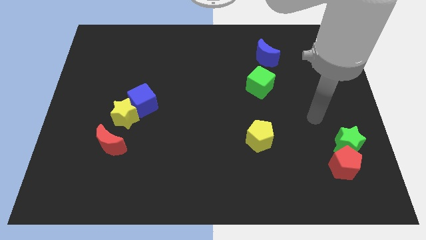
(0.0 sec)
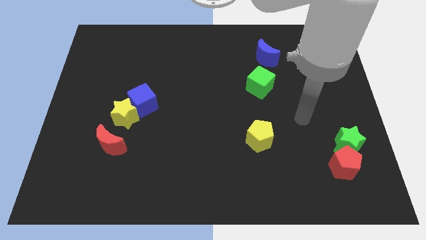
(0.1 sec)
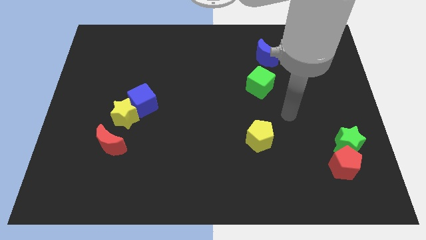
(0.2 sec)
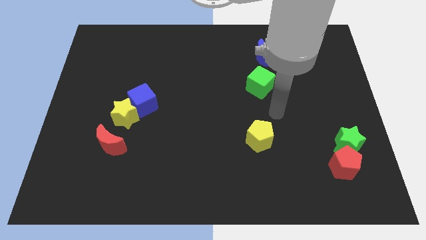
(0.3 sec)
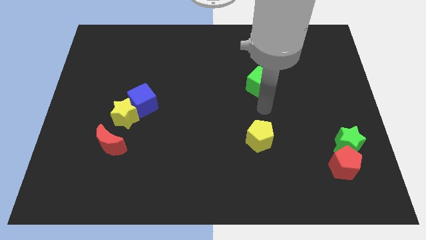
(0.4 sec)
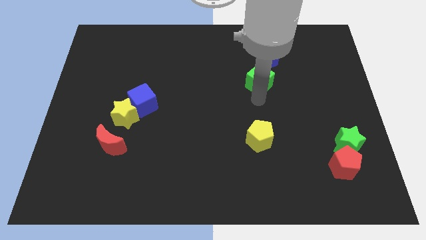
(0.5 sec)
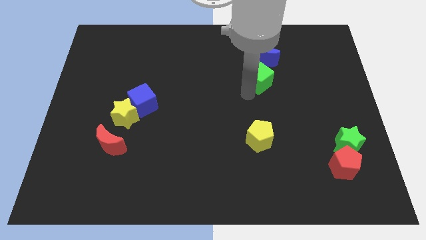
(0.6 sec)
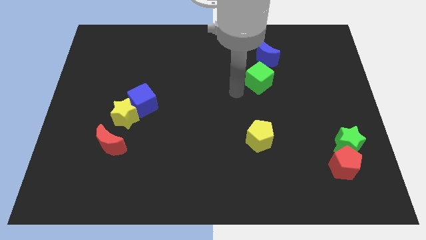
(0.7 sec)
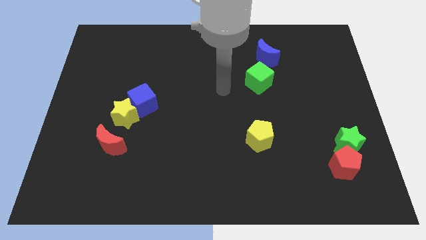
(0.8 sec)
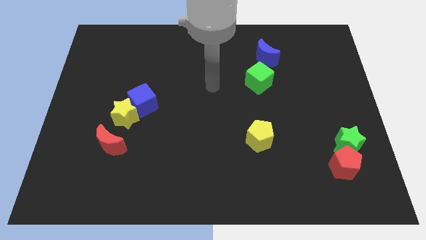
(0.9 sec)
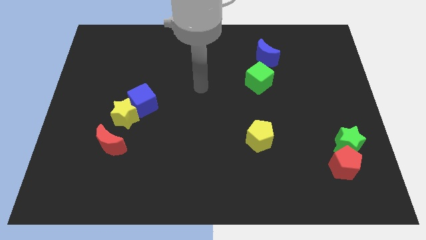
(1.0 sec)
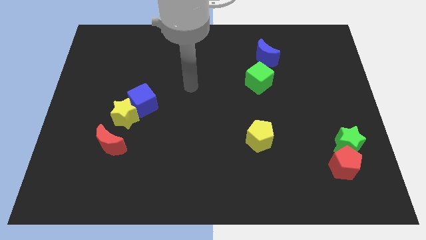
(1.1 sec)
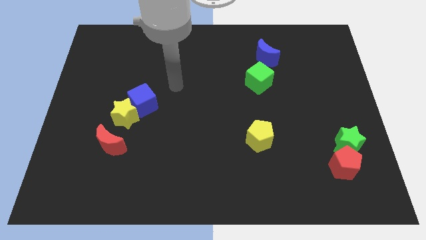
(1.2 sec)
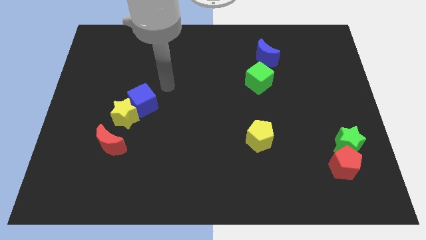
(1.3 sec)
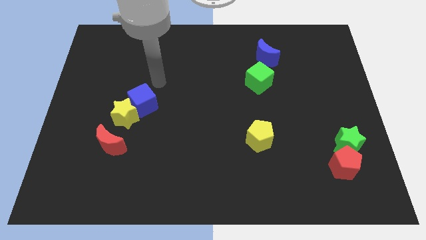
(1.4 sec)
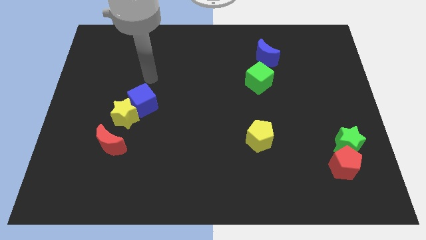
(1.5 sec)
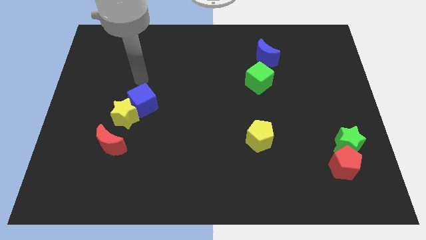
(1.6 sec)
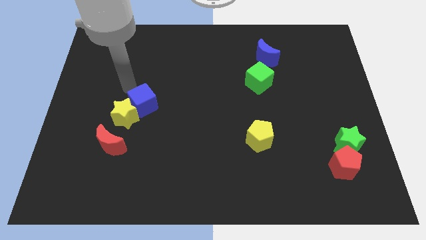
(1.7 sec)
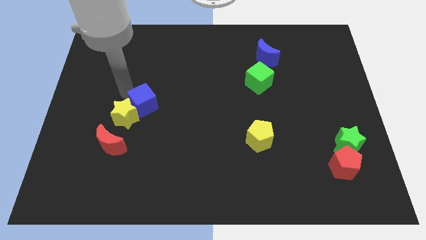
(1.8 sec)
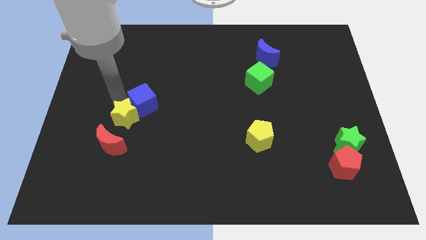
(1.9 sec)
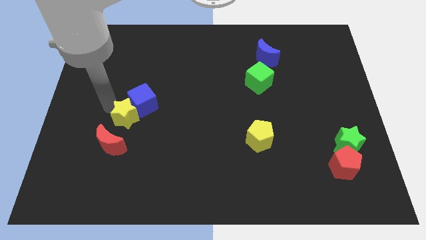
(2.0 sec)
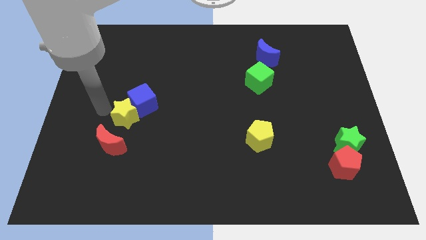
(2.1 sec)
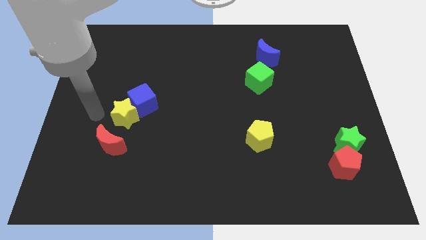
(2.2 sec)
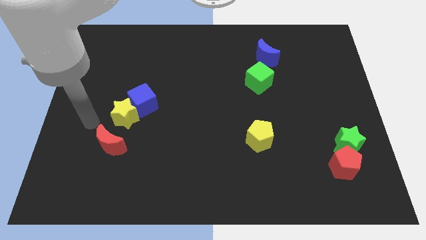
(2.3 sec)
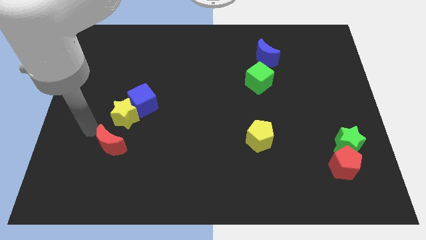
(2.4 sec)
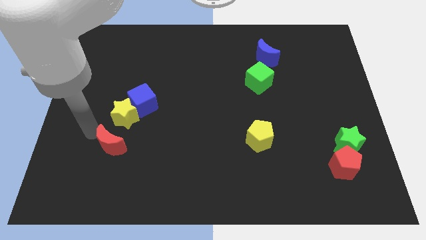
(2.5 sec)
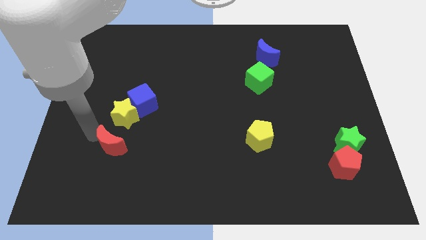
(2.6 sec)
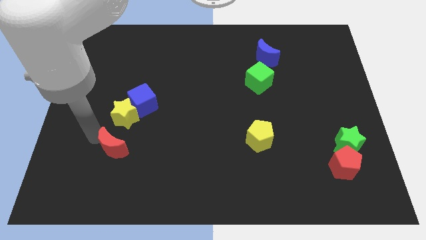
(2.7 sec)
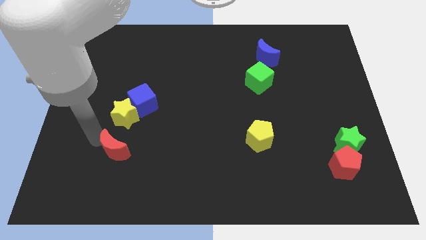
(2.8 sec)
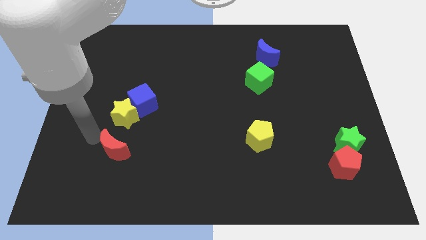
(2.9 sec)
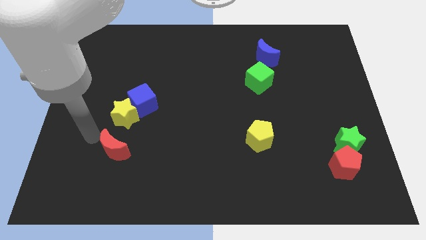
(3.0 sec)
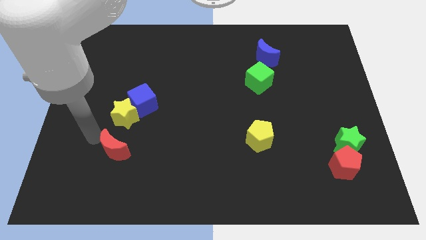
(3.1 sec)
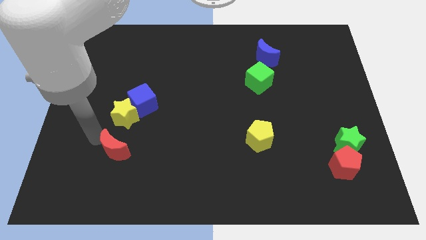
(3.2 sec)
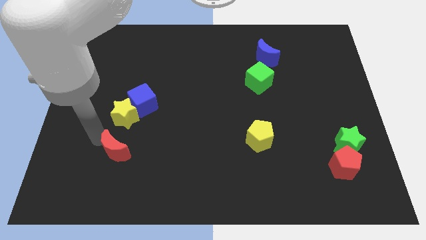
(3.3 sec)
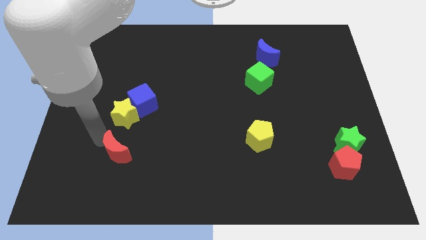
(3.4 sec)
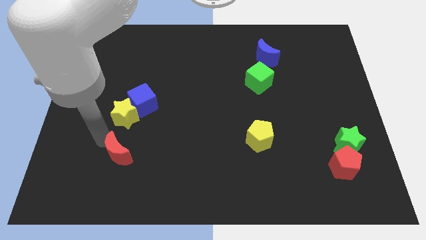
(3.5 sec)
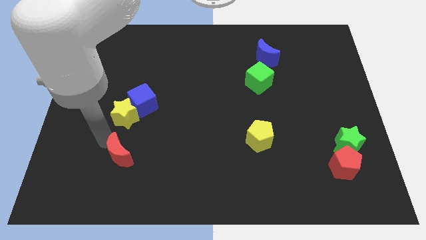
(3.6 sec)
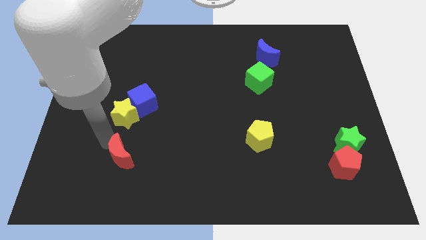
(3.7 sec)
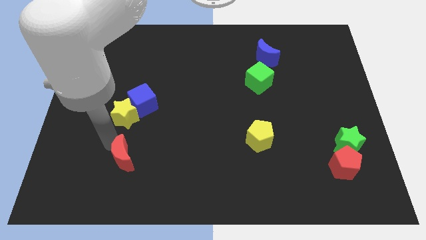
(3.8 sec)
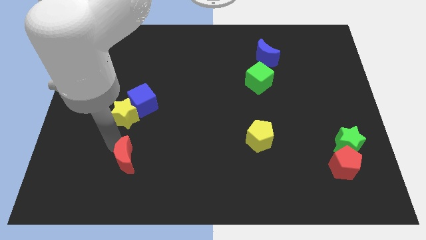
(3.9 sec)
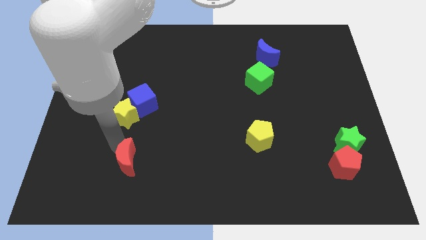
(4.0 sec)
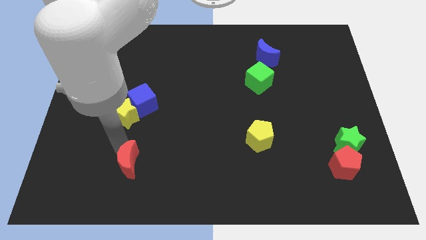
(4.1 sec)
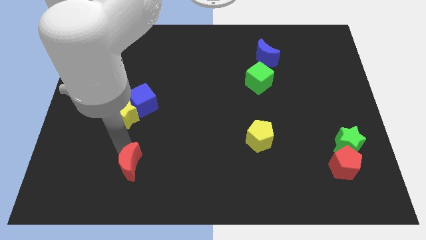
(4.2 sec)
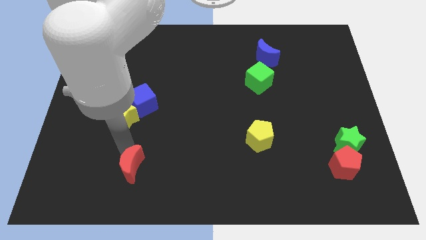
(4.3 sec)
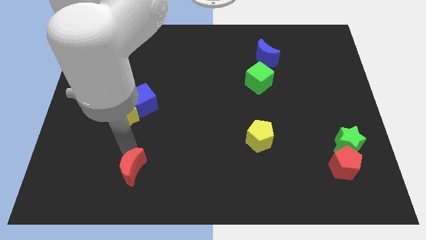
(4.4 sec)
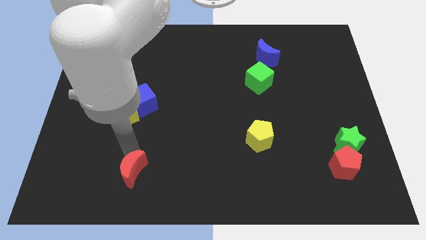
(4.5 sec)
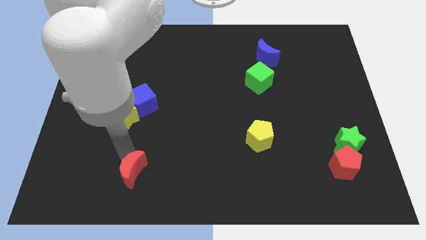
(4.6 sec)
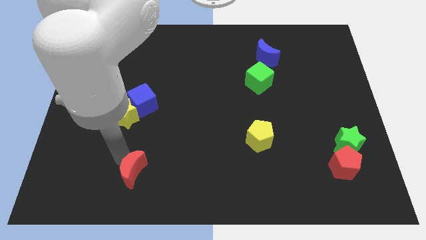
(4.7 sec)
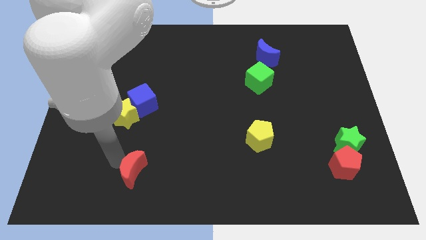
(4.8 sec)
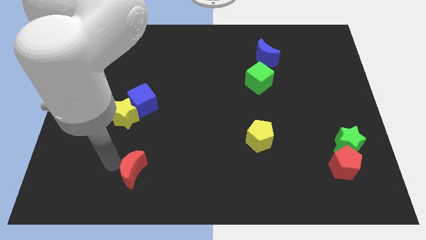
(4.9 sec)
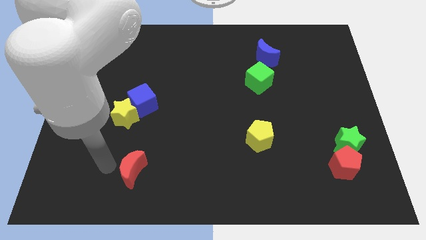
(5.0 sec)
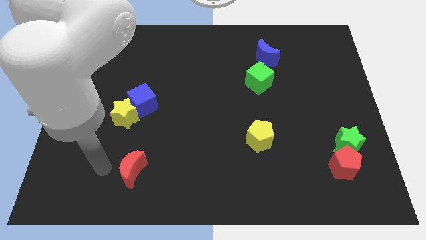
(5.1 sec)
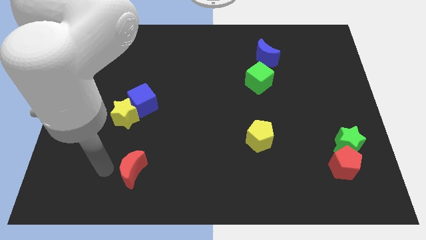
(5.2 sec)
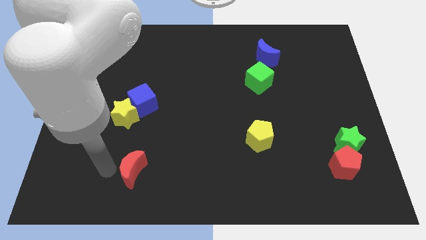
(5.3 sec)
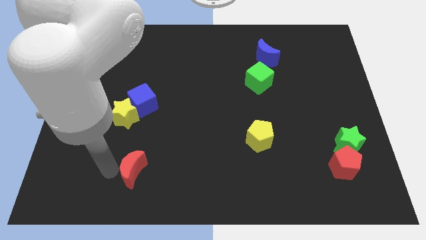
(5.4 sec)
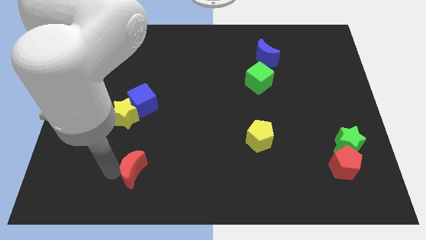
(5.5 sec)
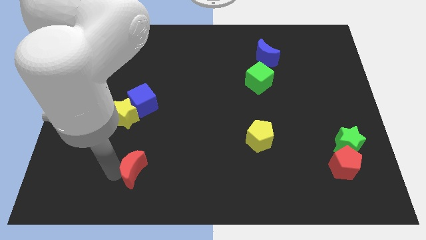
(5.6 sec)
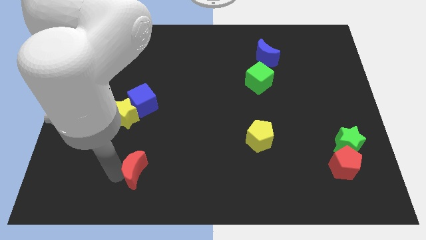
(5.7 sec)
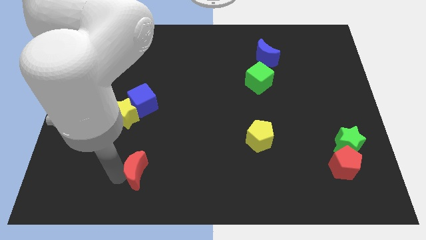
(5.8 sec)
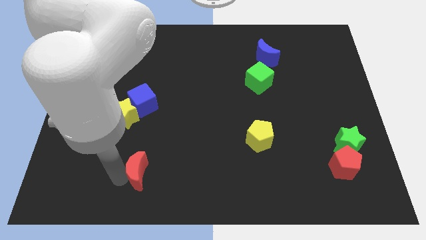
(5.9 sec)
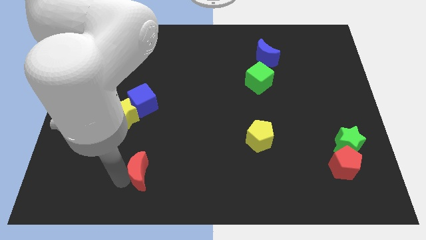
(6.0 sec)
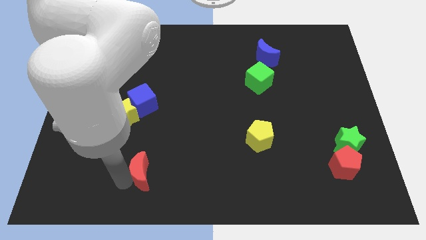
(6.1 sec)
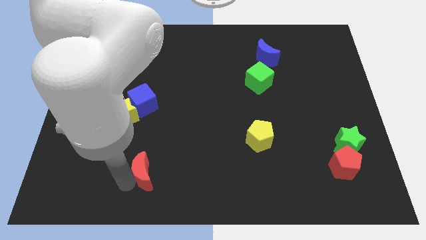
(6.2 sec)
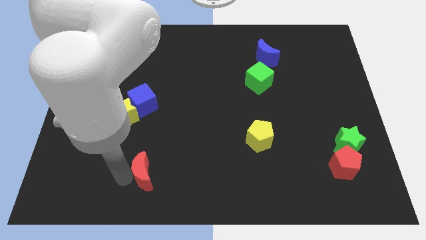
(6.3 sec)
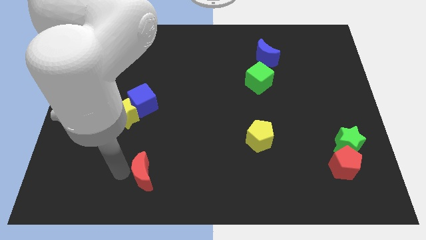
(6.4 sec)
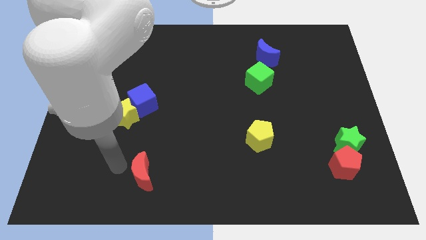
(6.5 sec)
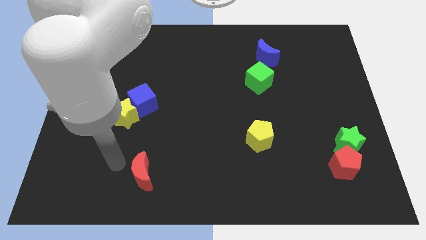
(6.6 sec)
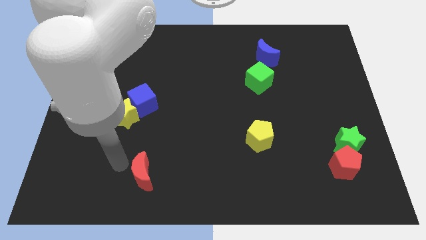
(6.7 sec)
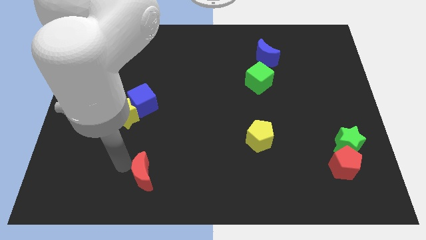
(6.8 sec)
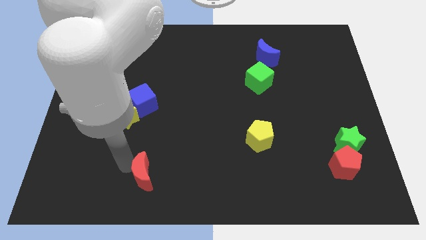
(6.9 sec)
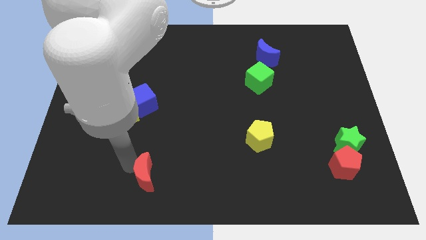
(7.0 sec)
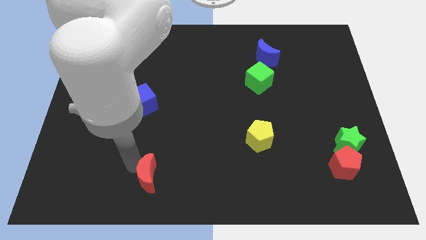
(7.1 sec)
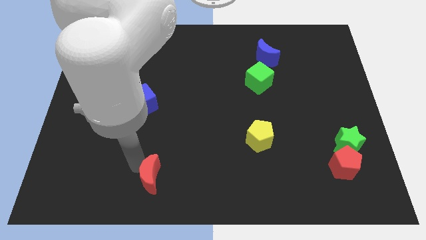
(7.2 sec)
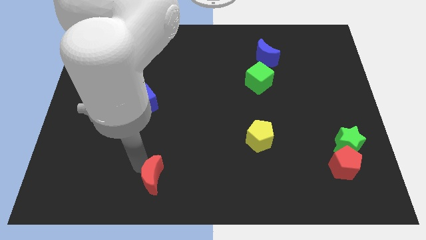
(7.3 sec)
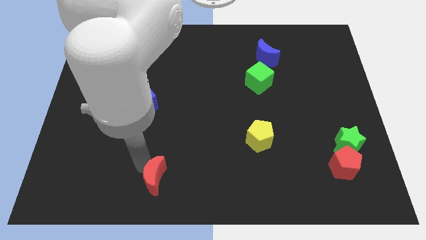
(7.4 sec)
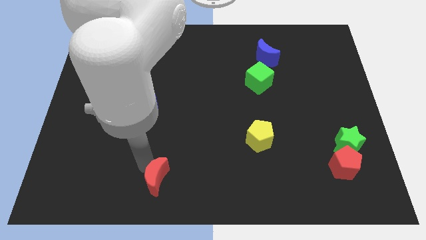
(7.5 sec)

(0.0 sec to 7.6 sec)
put the red moon to the bottom side

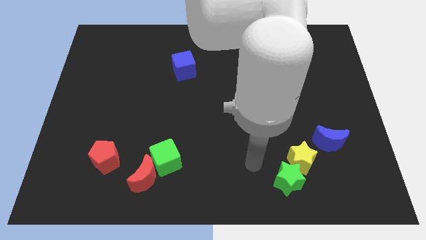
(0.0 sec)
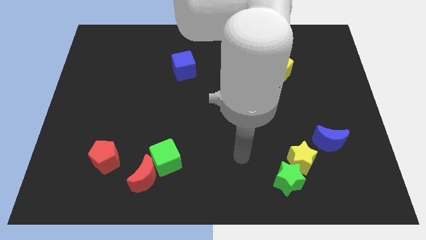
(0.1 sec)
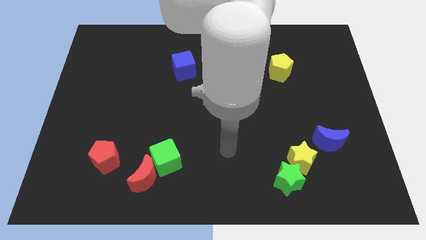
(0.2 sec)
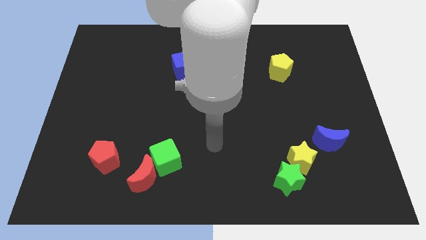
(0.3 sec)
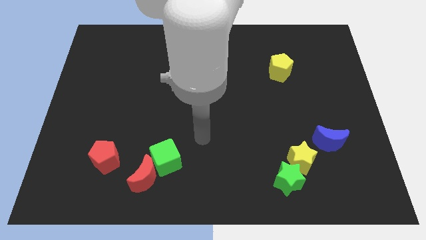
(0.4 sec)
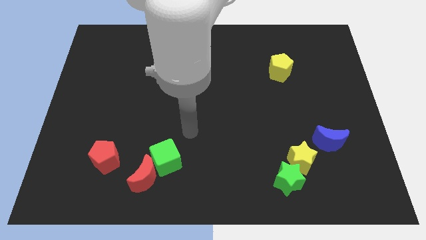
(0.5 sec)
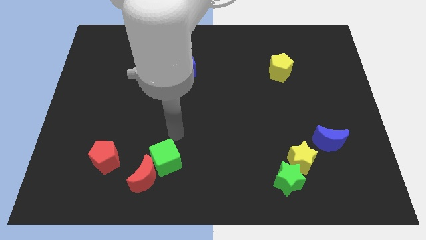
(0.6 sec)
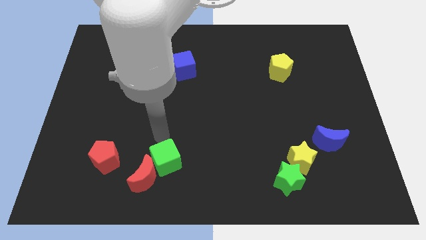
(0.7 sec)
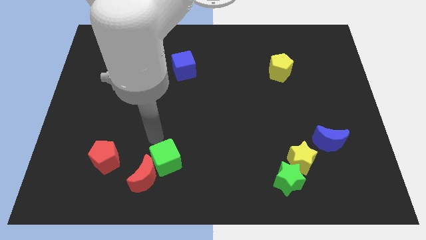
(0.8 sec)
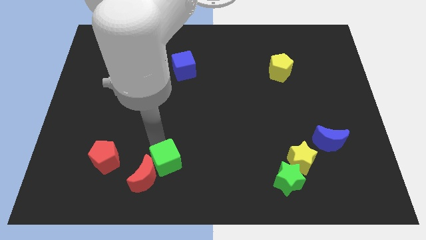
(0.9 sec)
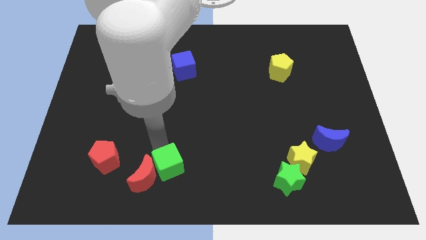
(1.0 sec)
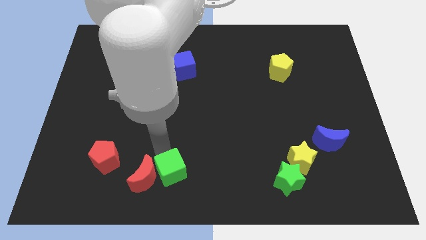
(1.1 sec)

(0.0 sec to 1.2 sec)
slide the green cube to the bottom side
